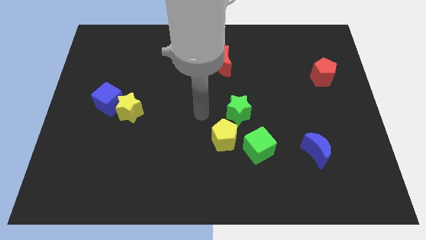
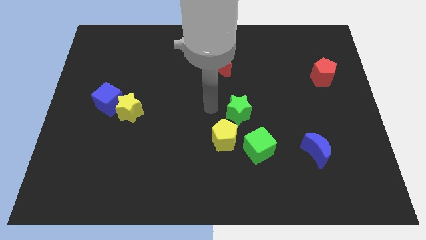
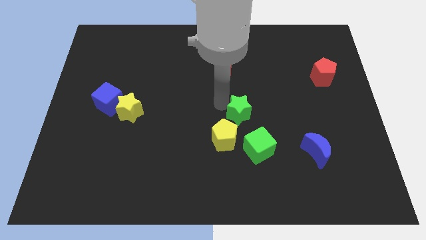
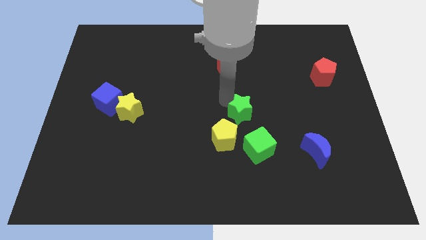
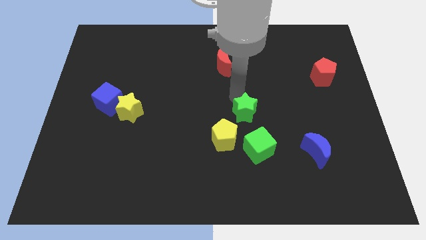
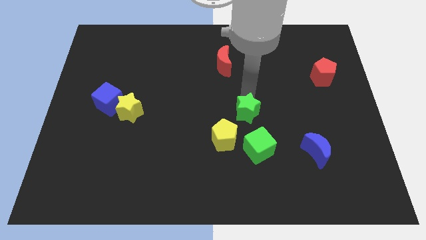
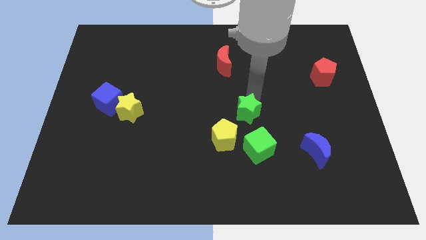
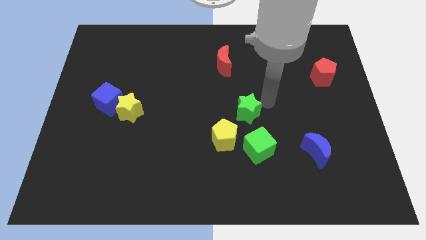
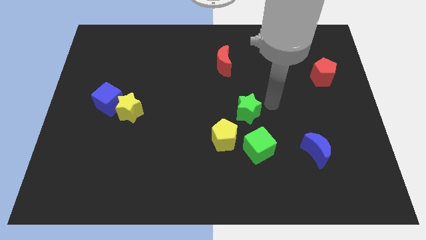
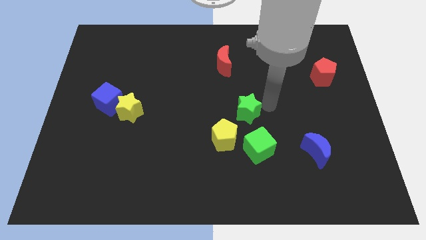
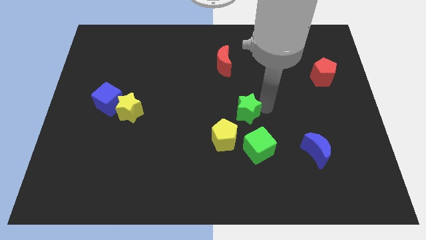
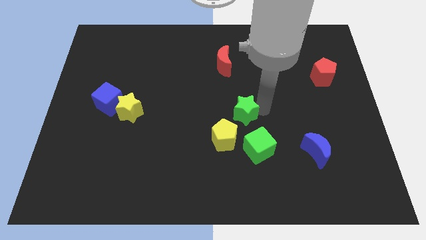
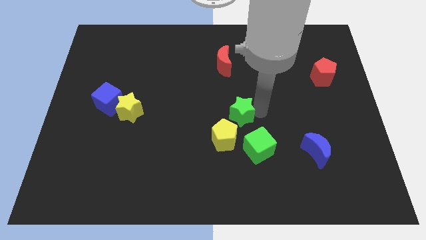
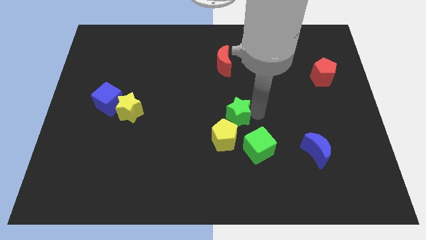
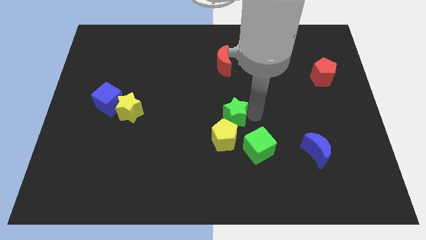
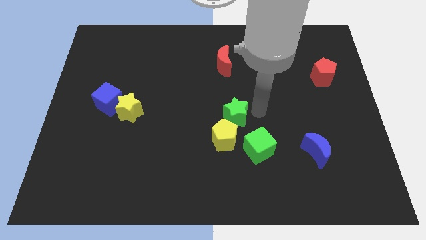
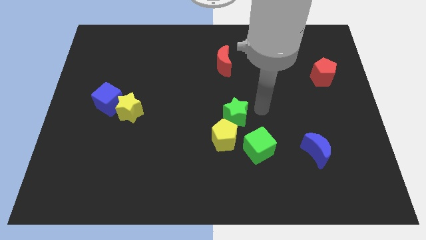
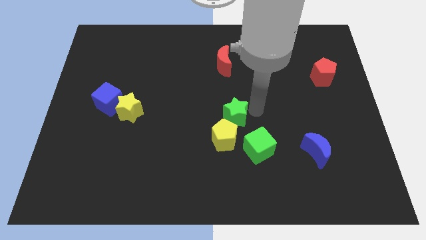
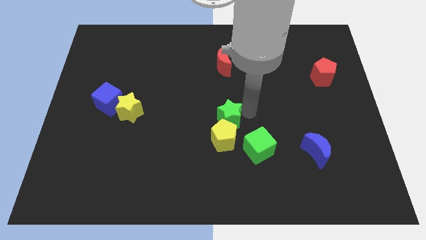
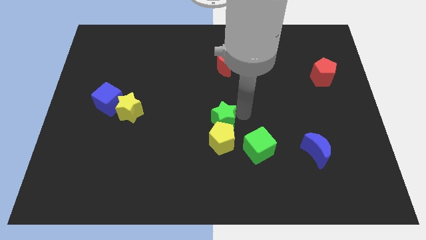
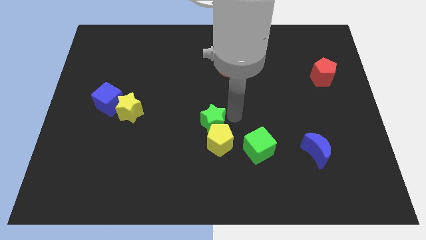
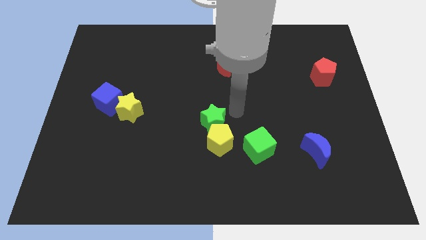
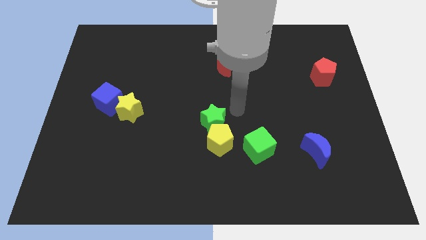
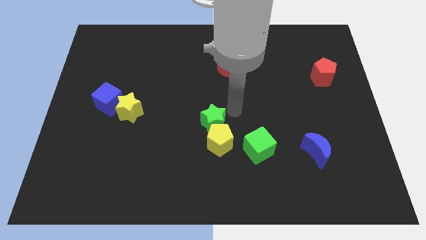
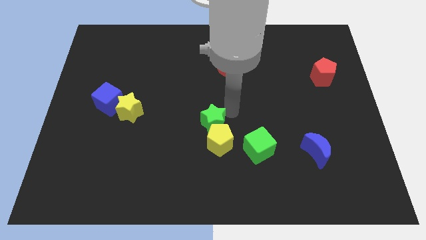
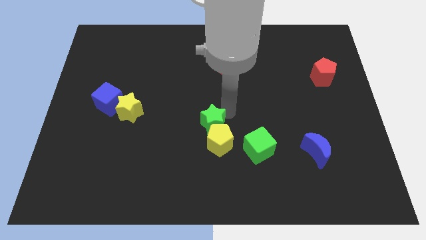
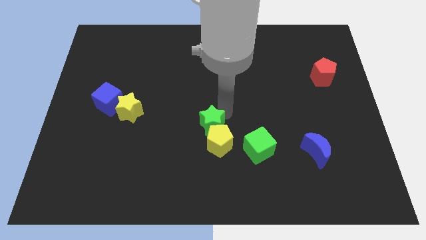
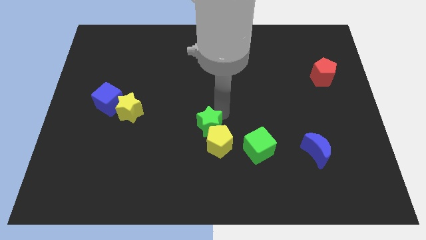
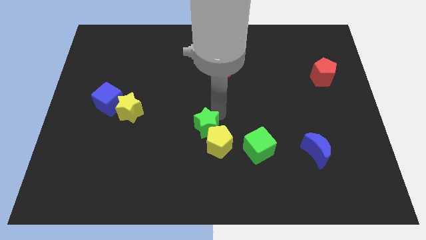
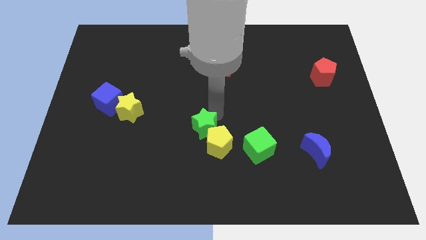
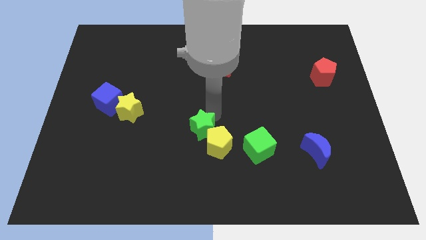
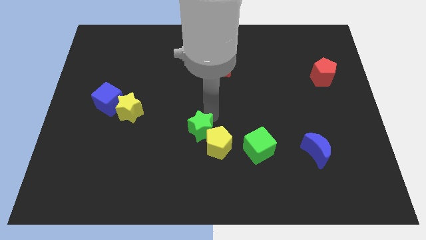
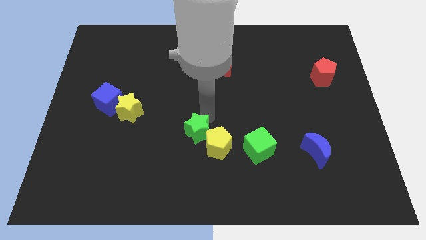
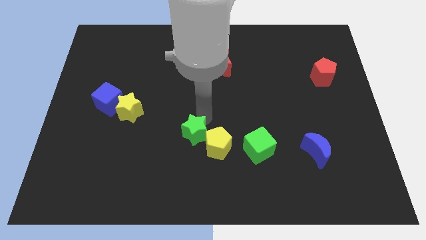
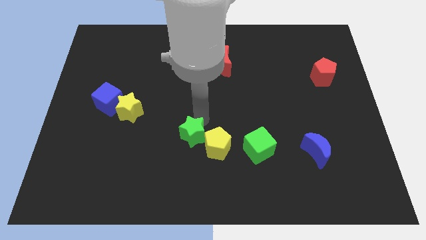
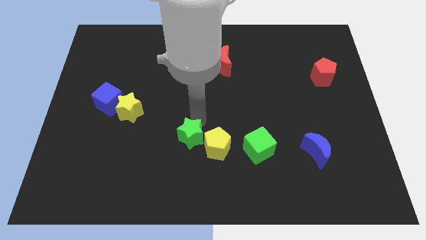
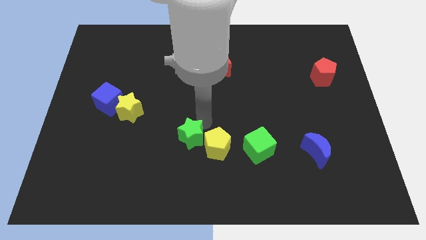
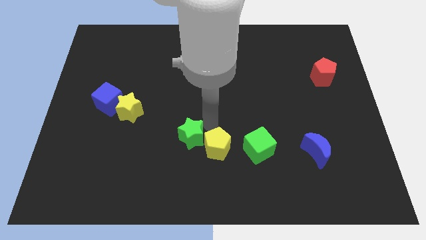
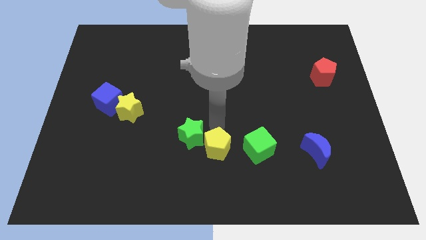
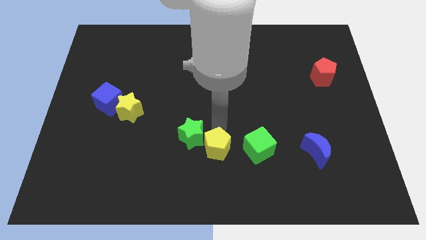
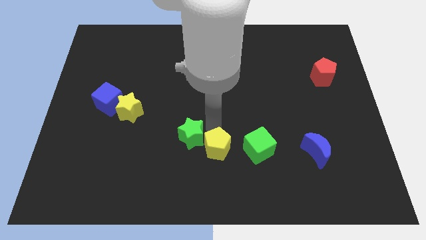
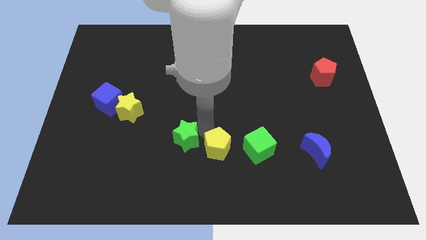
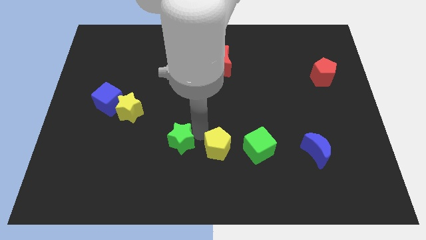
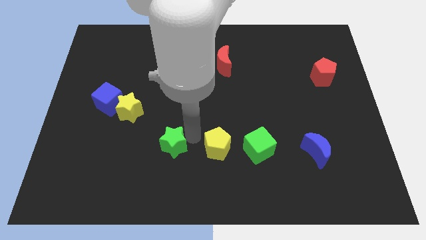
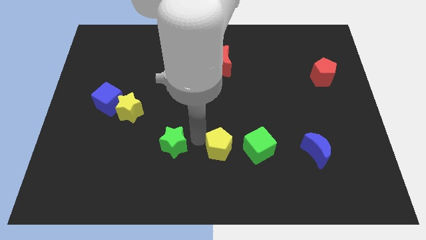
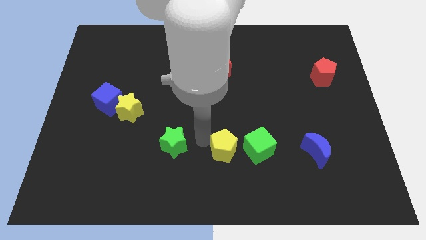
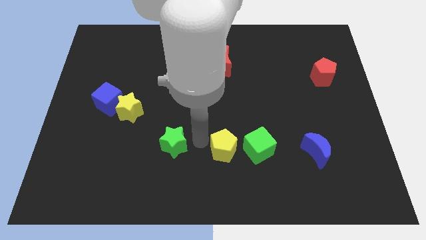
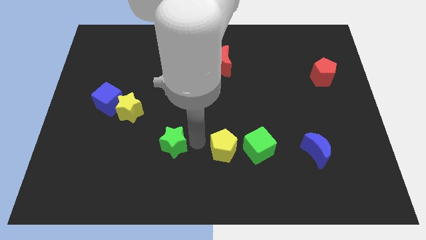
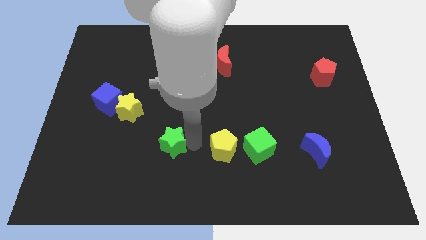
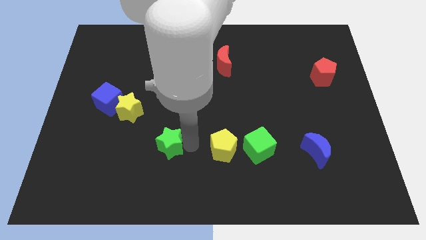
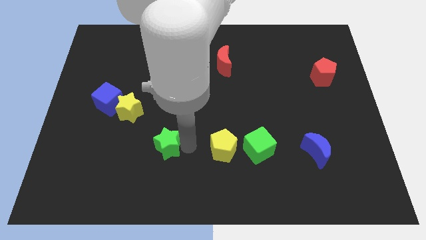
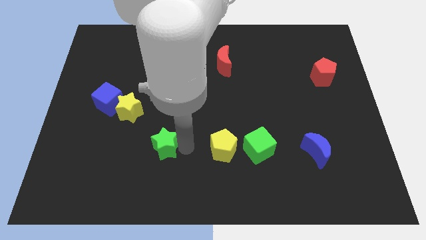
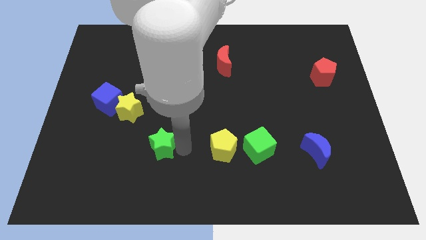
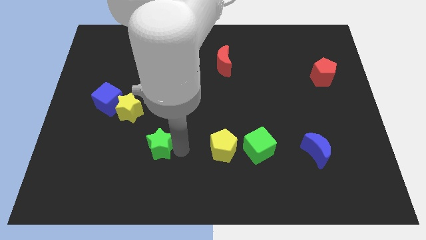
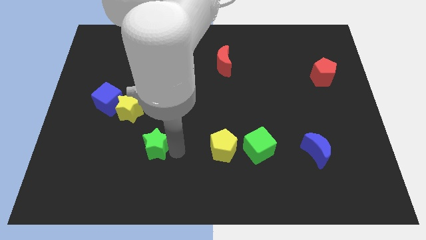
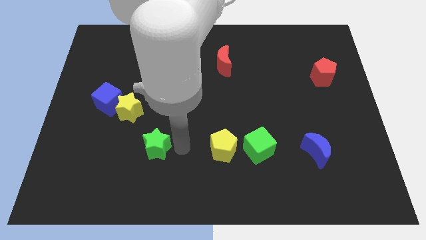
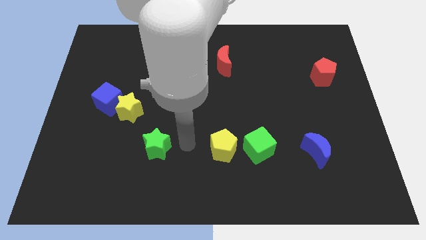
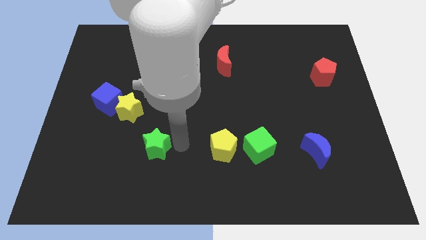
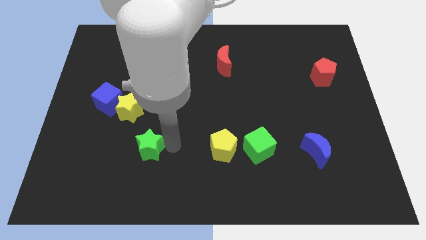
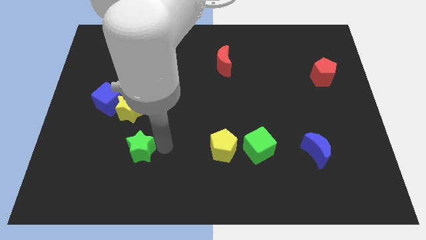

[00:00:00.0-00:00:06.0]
put the green star to the bottom of the yellow star

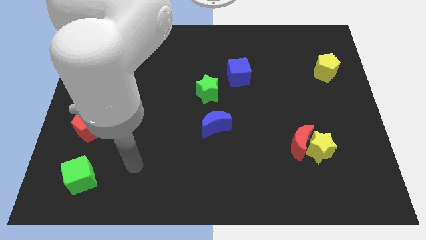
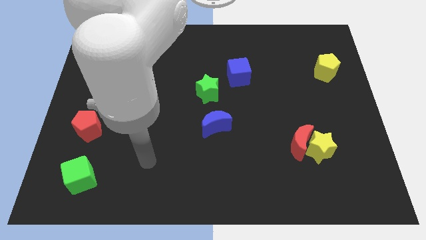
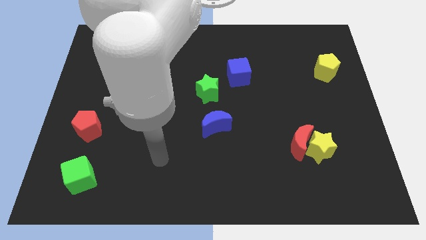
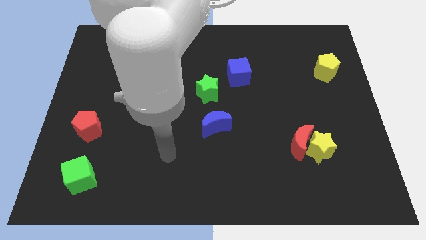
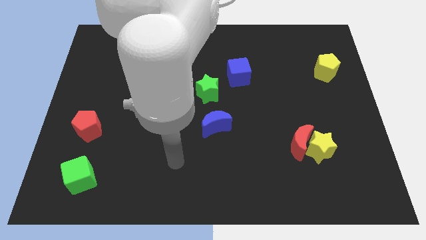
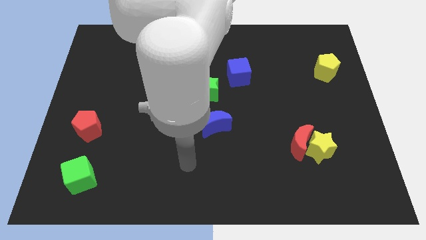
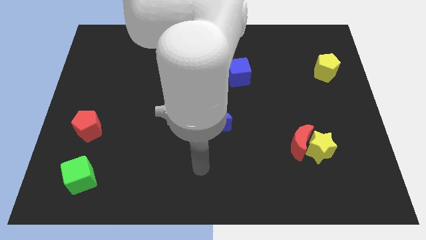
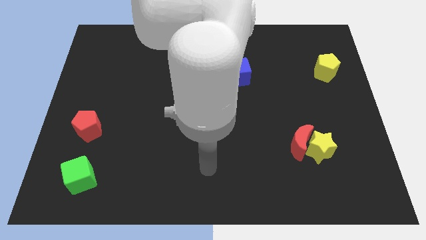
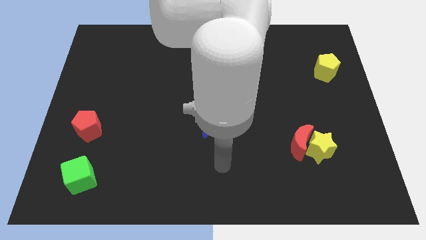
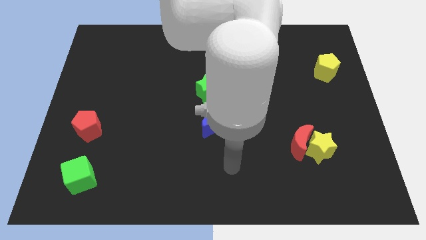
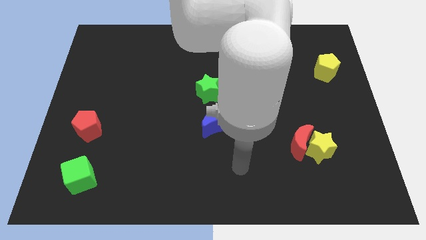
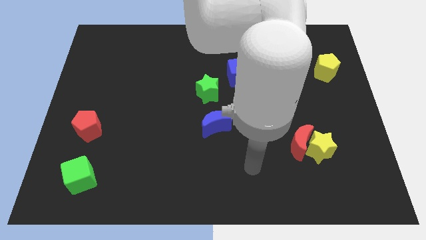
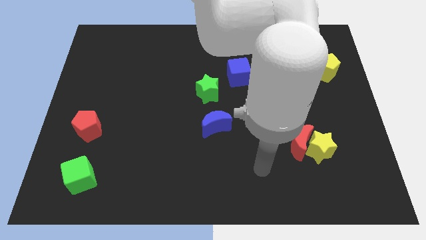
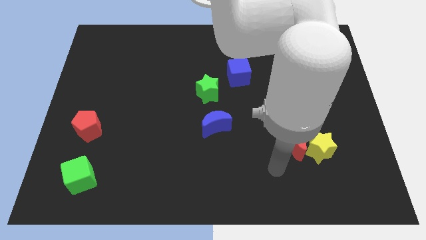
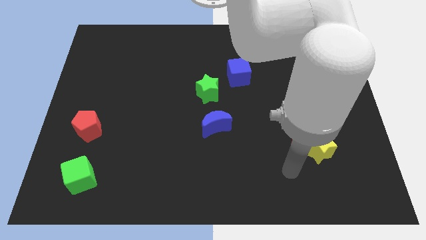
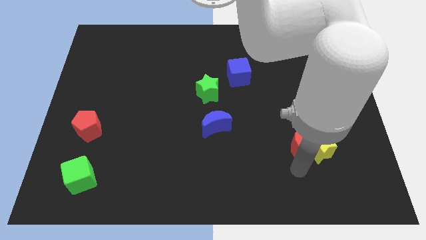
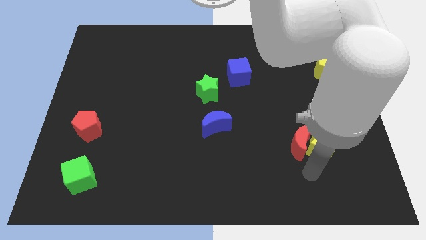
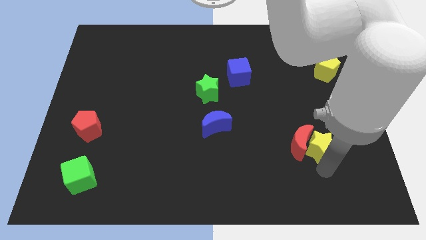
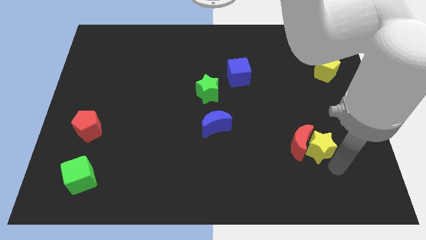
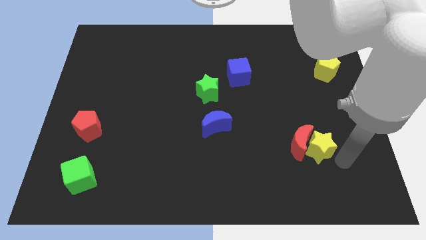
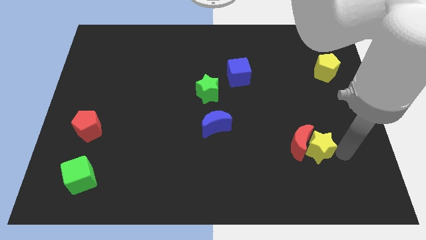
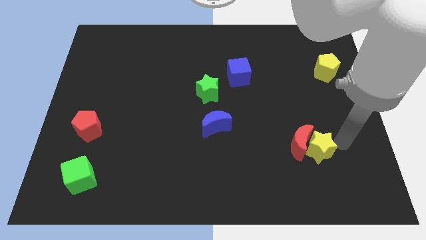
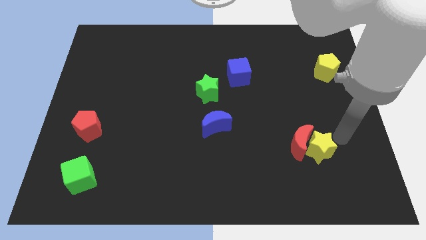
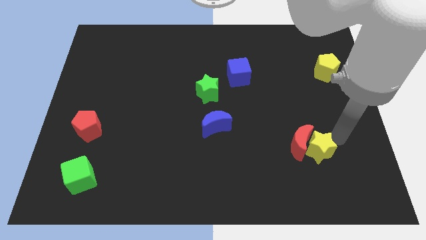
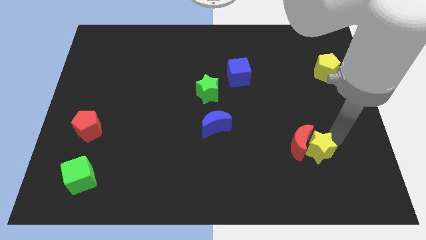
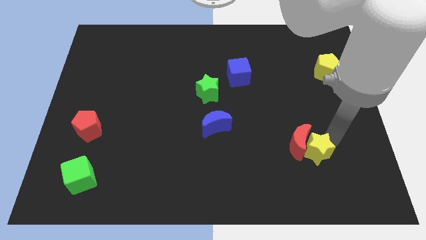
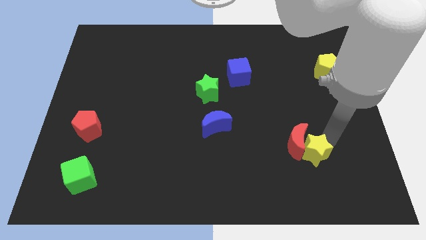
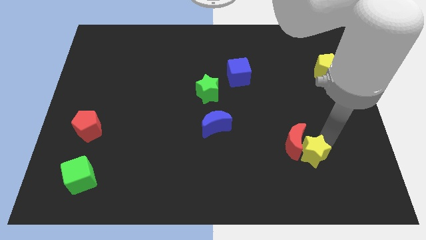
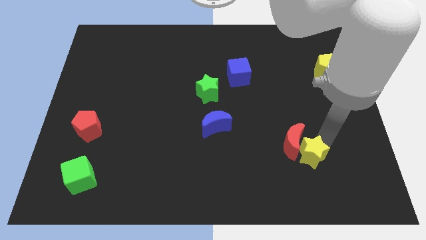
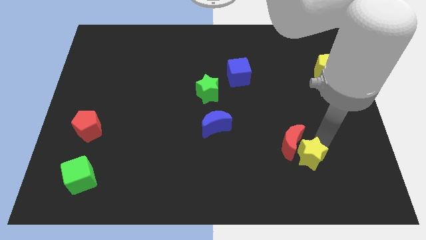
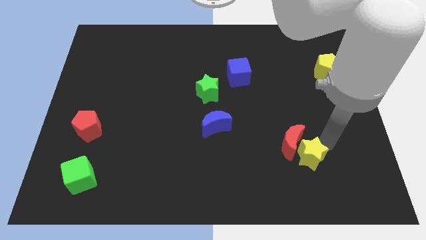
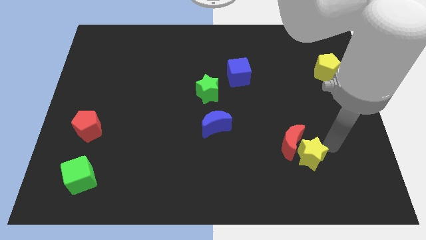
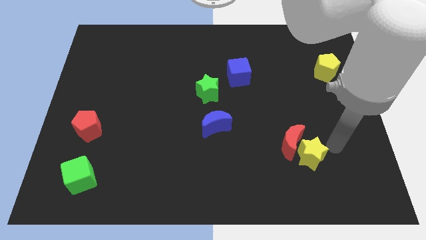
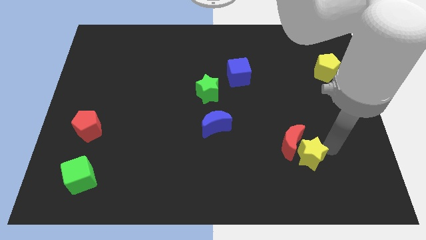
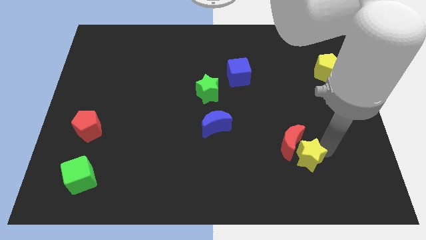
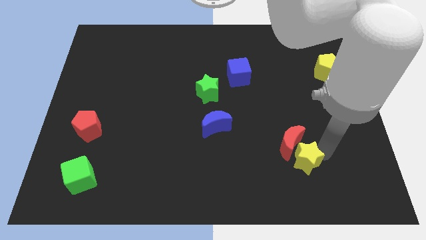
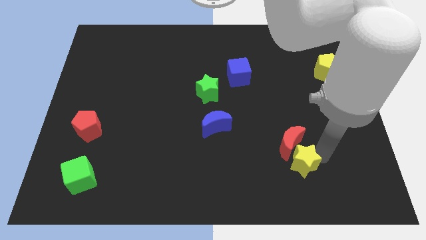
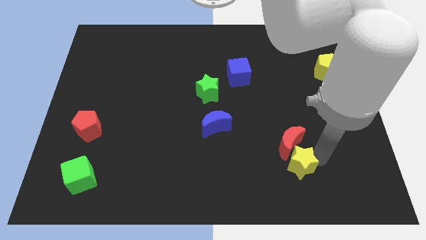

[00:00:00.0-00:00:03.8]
push the yellow star to the bottom left of the red moon
